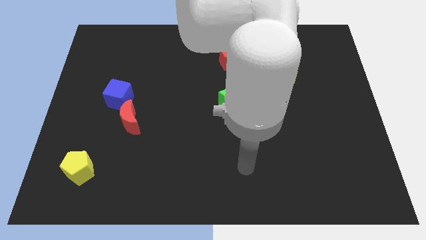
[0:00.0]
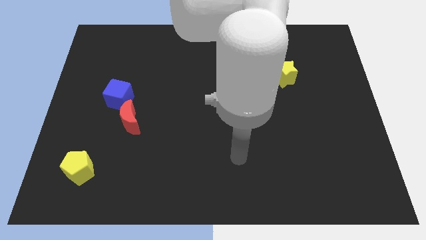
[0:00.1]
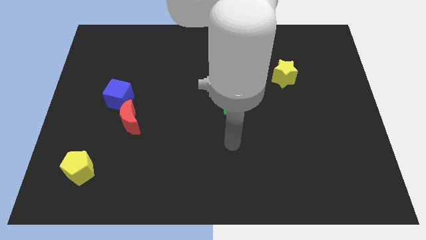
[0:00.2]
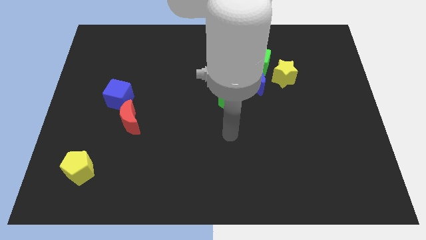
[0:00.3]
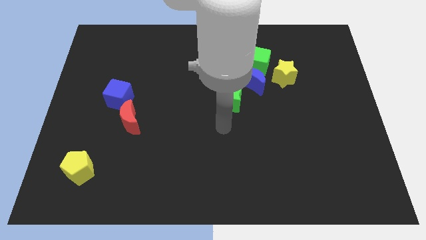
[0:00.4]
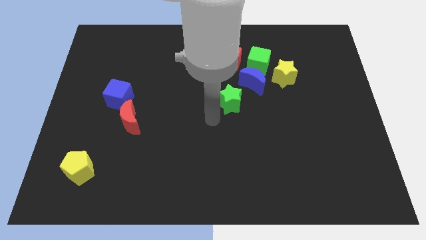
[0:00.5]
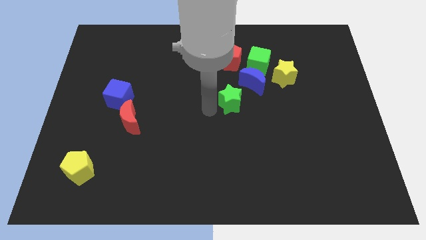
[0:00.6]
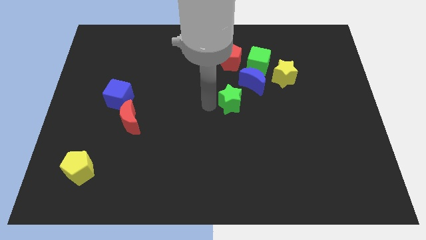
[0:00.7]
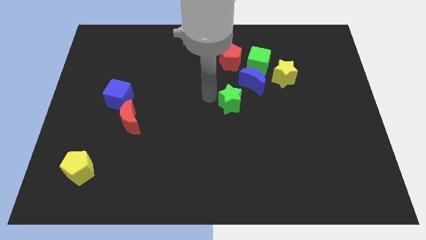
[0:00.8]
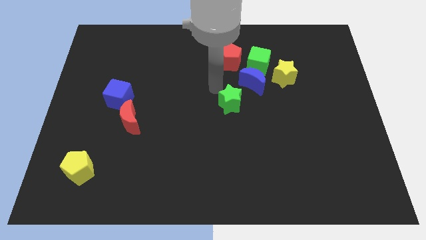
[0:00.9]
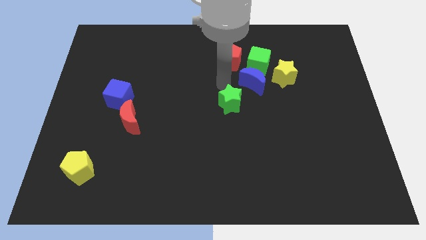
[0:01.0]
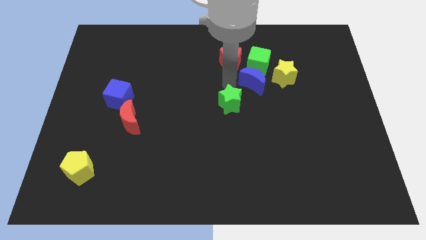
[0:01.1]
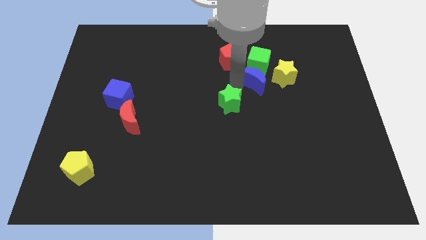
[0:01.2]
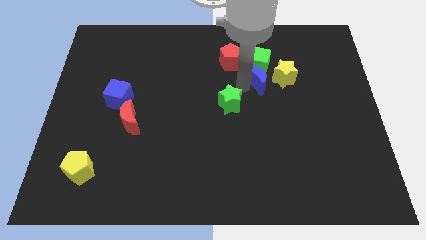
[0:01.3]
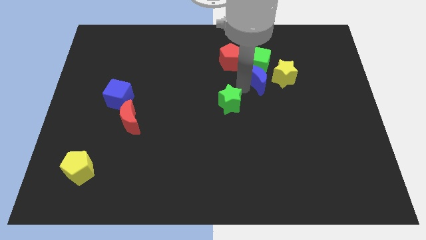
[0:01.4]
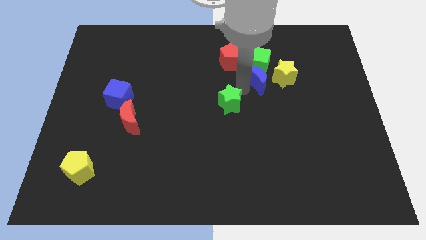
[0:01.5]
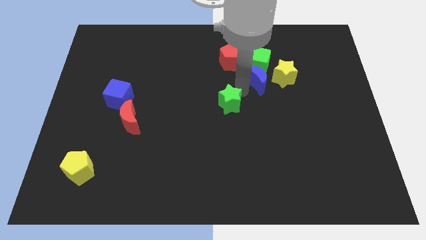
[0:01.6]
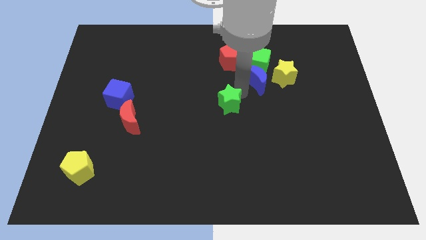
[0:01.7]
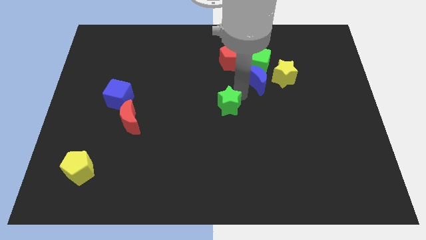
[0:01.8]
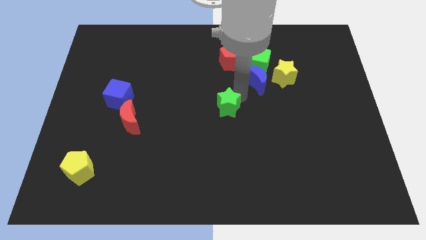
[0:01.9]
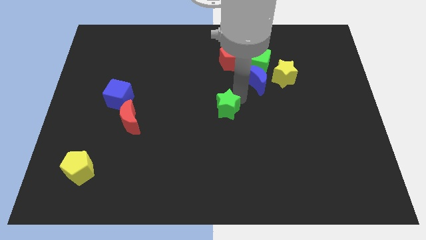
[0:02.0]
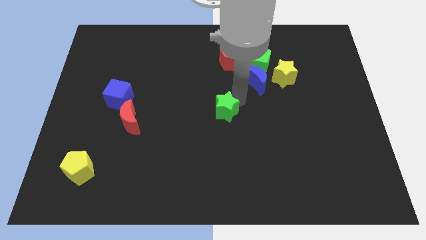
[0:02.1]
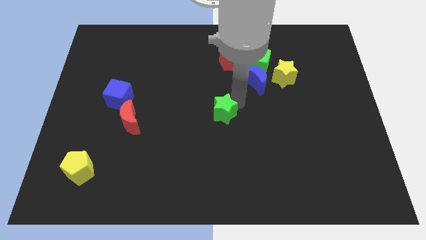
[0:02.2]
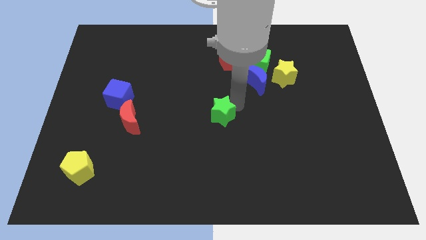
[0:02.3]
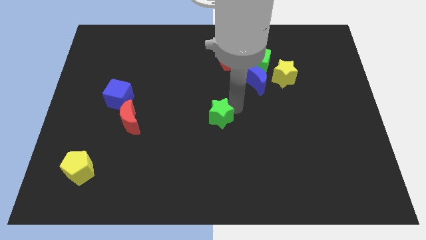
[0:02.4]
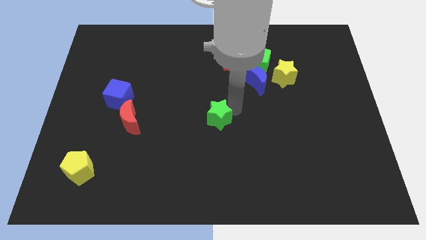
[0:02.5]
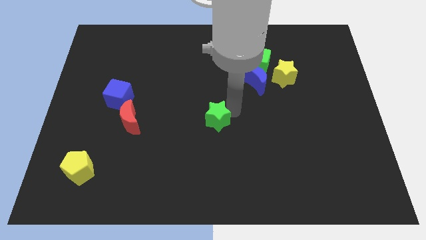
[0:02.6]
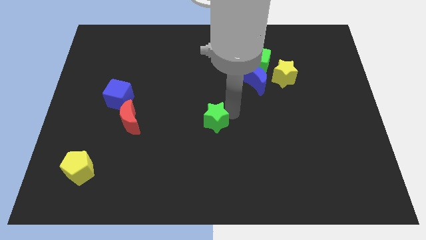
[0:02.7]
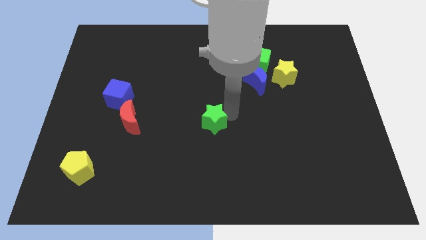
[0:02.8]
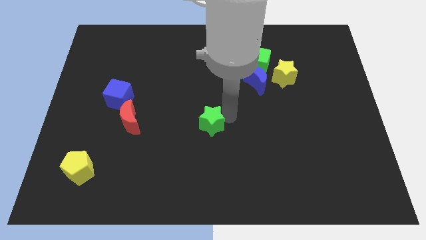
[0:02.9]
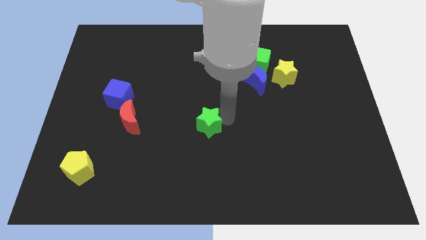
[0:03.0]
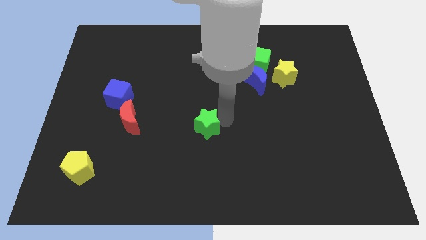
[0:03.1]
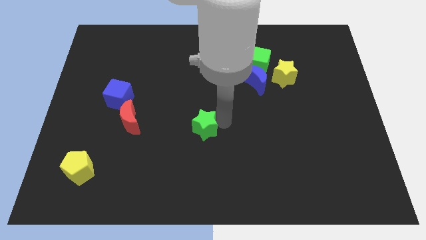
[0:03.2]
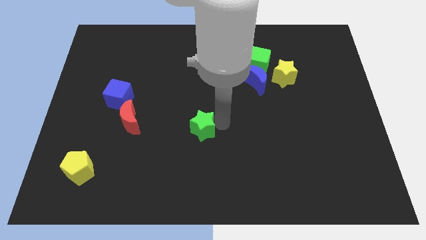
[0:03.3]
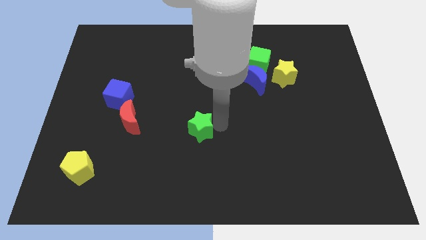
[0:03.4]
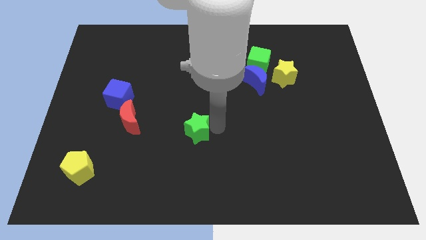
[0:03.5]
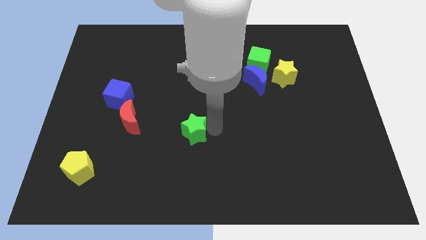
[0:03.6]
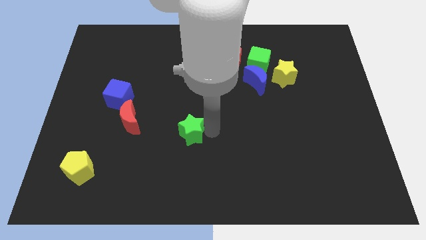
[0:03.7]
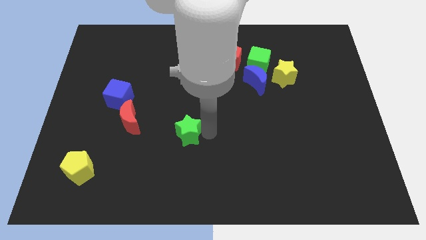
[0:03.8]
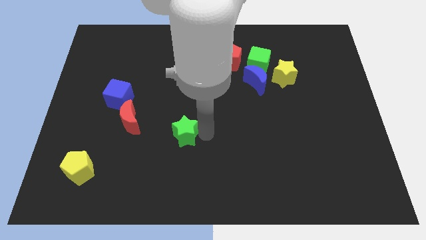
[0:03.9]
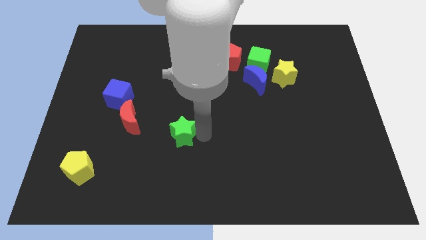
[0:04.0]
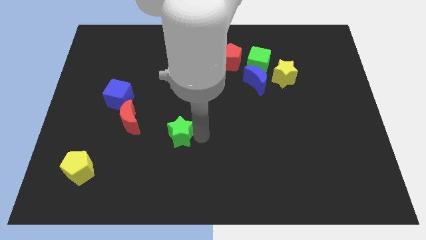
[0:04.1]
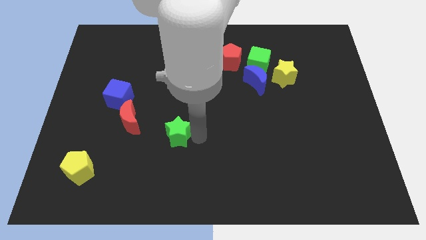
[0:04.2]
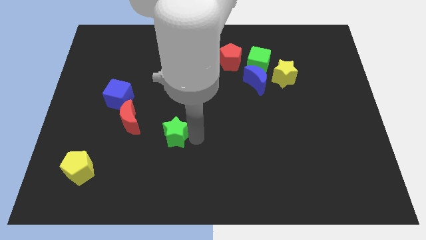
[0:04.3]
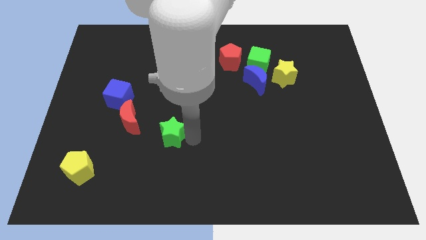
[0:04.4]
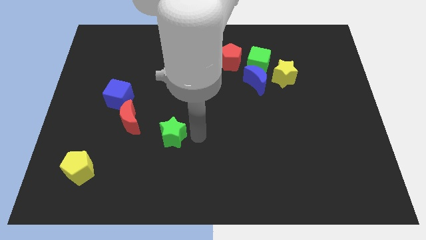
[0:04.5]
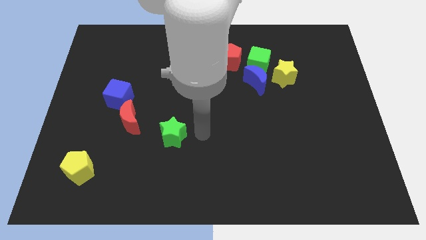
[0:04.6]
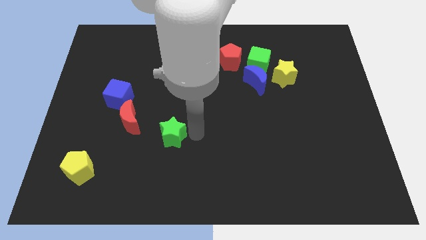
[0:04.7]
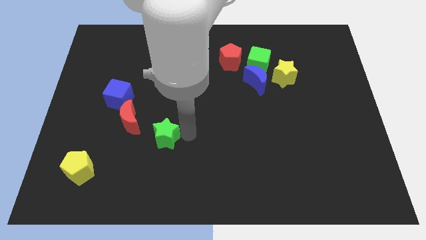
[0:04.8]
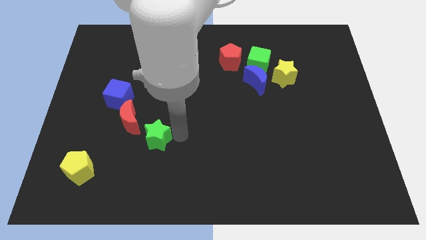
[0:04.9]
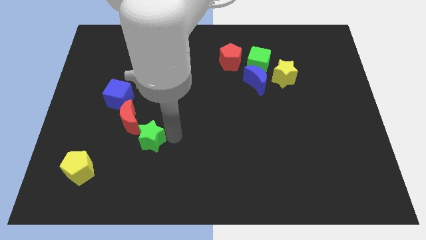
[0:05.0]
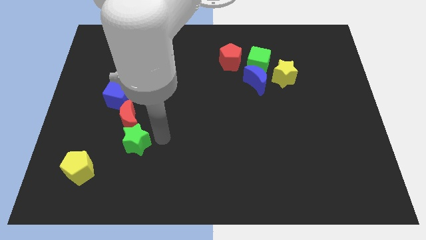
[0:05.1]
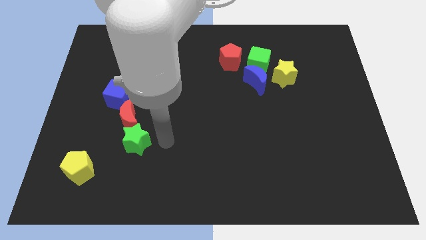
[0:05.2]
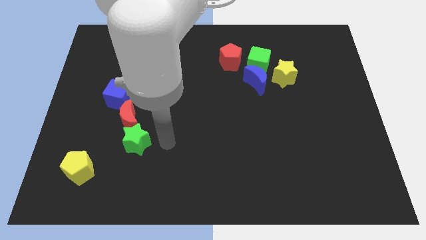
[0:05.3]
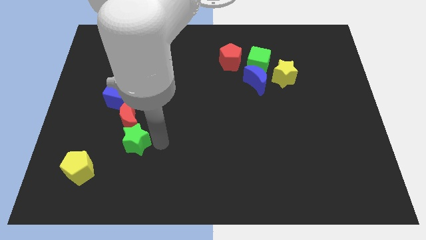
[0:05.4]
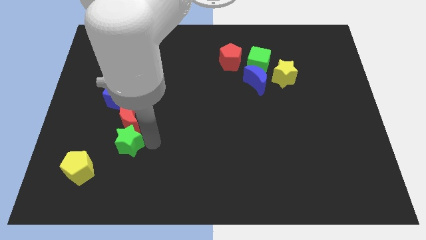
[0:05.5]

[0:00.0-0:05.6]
slide the green star to the bottom left of the red moon
